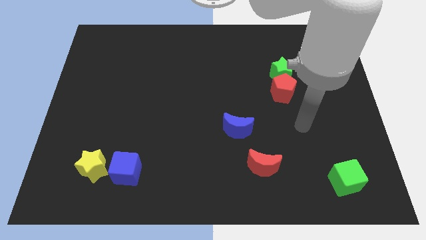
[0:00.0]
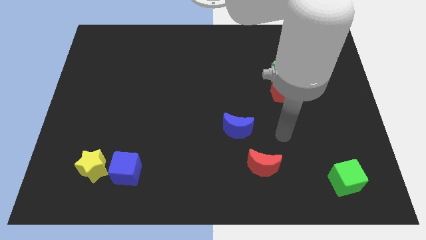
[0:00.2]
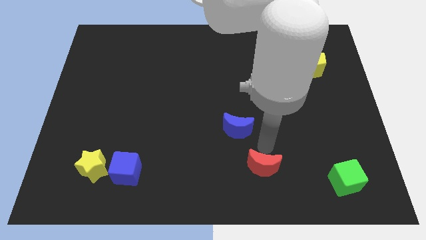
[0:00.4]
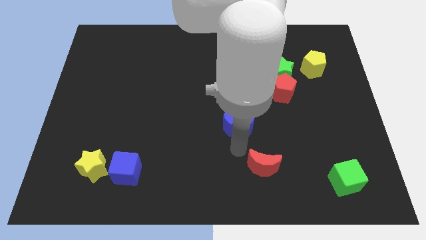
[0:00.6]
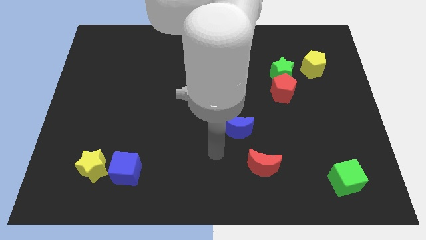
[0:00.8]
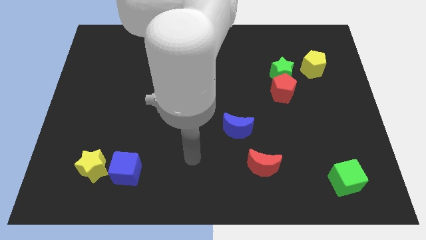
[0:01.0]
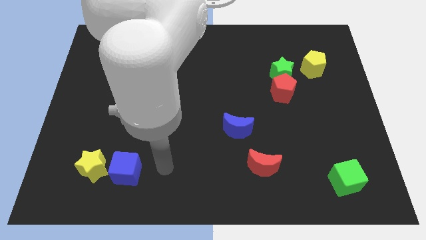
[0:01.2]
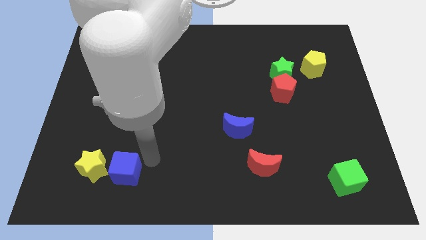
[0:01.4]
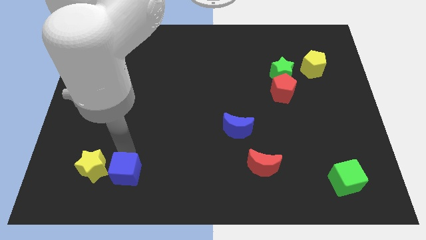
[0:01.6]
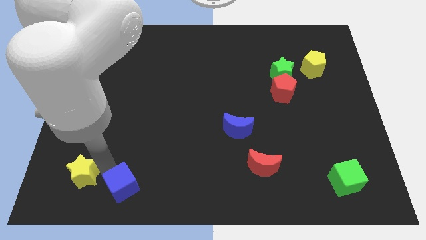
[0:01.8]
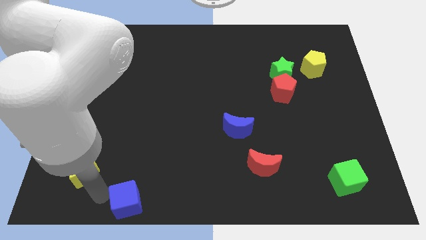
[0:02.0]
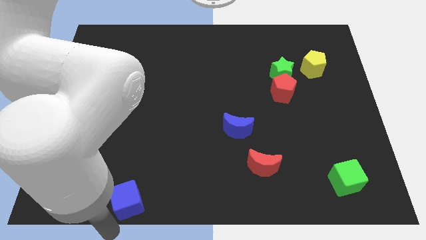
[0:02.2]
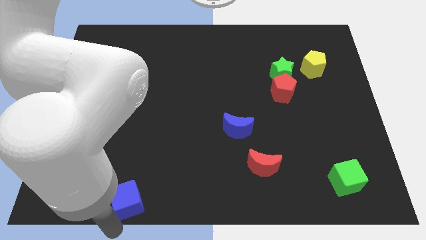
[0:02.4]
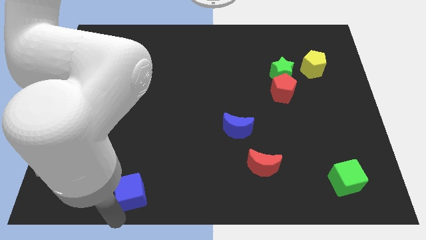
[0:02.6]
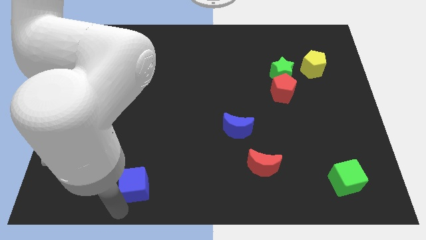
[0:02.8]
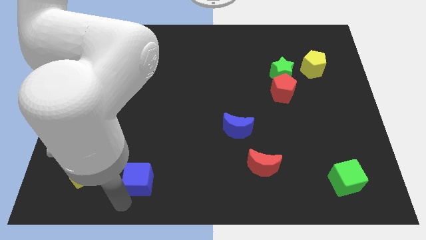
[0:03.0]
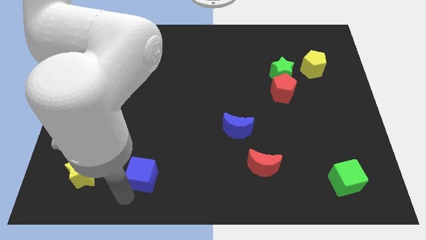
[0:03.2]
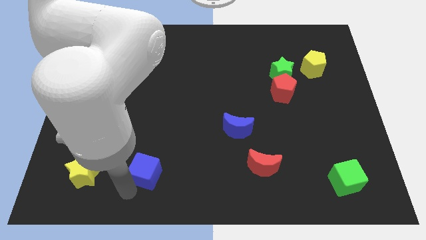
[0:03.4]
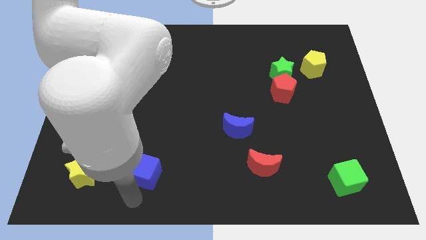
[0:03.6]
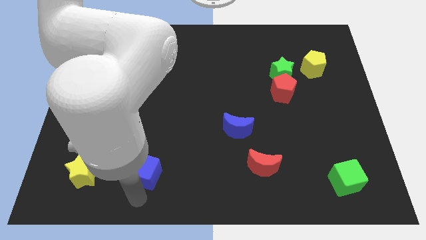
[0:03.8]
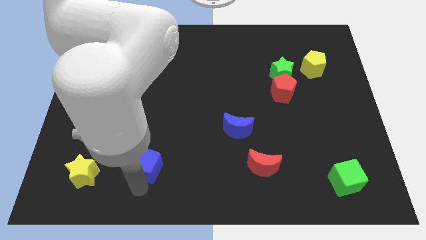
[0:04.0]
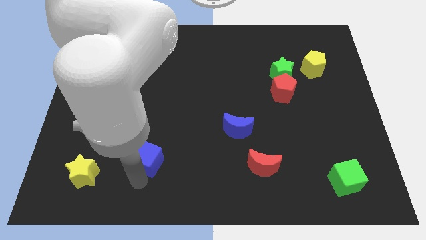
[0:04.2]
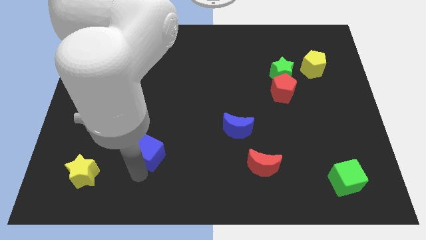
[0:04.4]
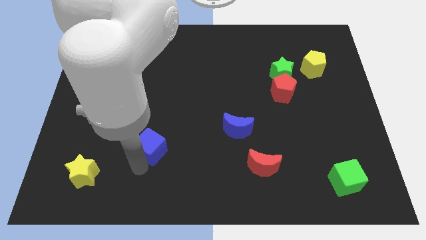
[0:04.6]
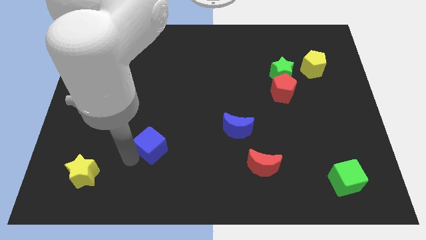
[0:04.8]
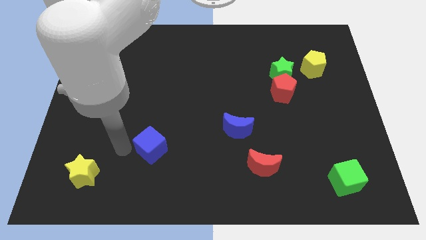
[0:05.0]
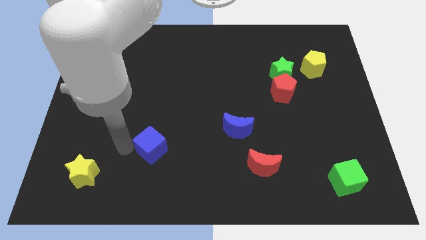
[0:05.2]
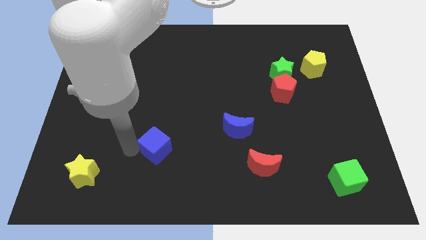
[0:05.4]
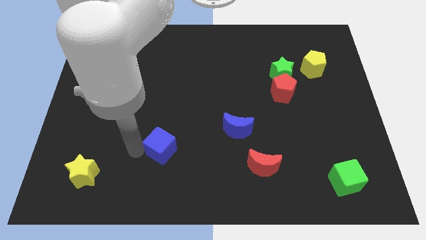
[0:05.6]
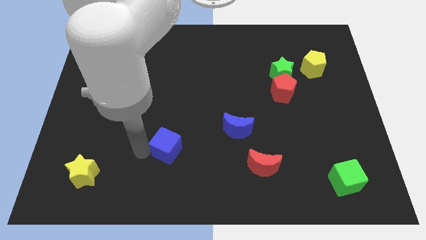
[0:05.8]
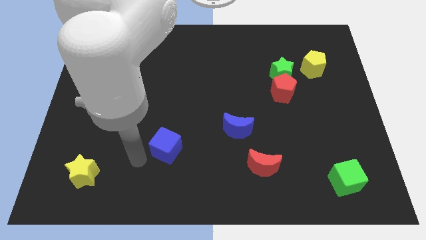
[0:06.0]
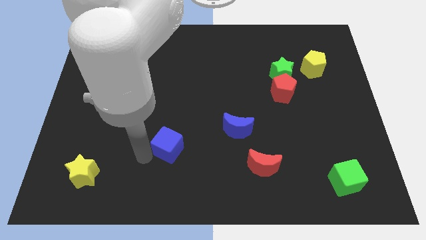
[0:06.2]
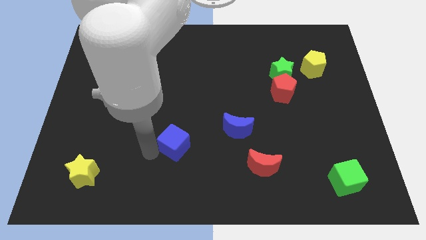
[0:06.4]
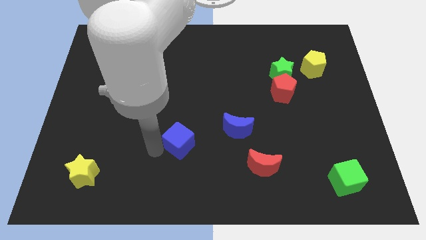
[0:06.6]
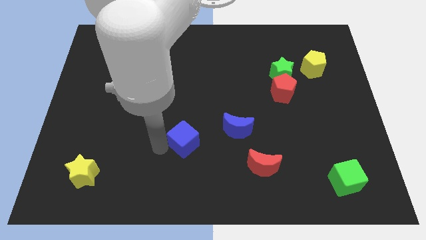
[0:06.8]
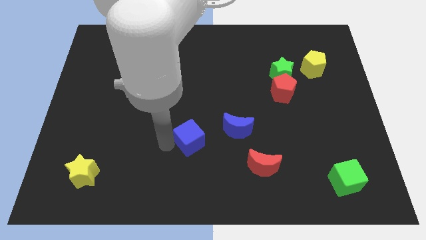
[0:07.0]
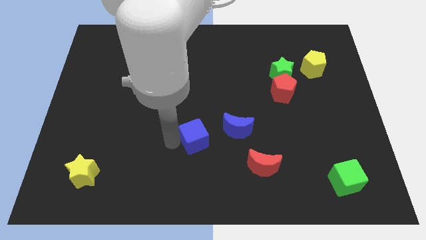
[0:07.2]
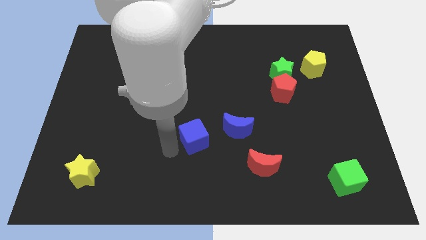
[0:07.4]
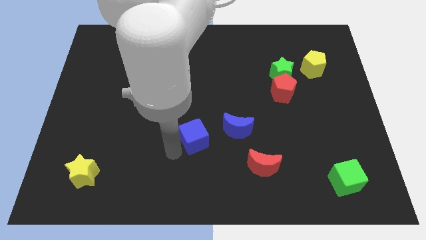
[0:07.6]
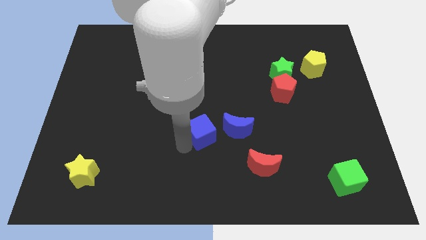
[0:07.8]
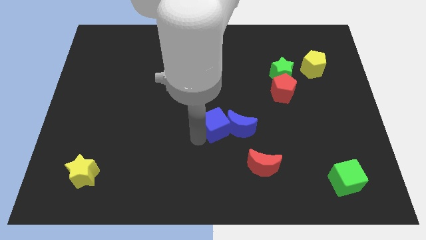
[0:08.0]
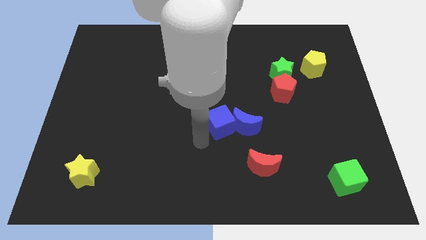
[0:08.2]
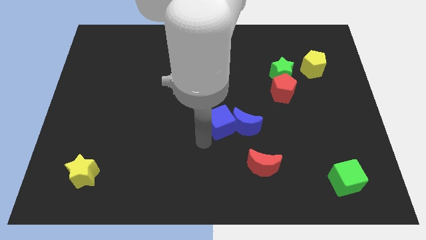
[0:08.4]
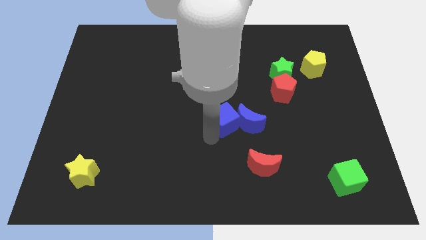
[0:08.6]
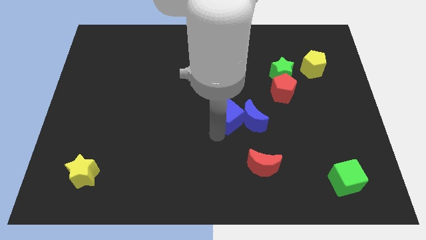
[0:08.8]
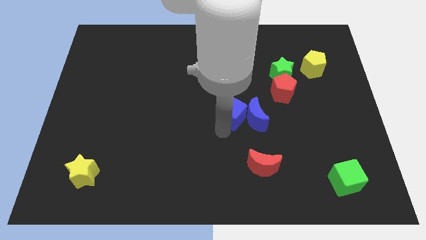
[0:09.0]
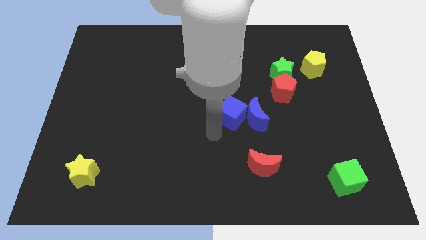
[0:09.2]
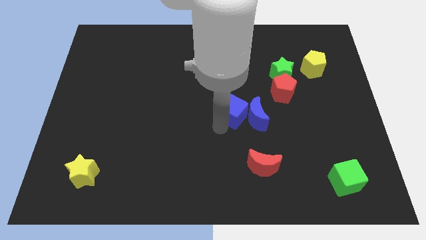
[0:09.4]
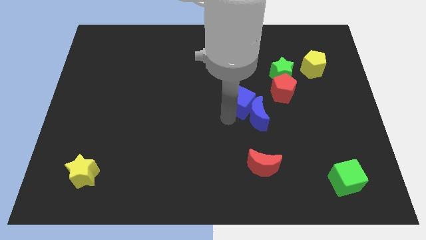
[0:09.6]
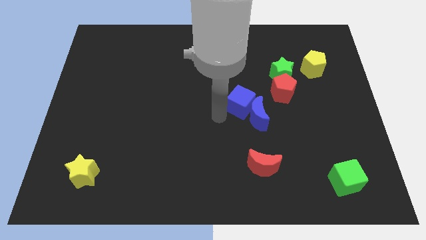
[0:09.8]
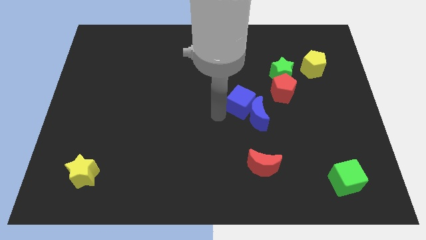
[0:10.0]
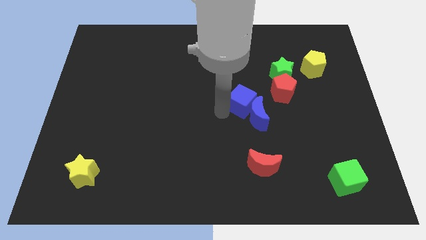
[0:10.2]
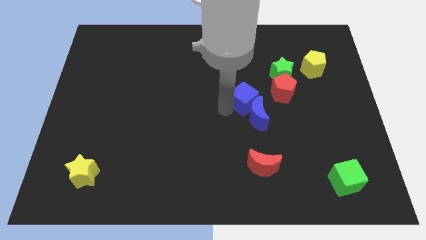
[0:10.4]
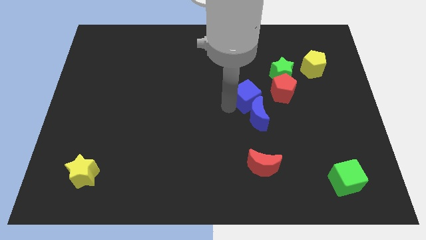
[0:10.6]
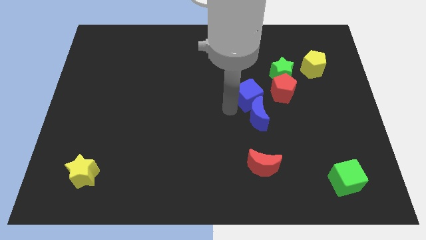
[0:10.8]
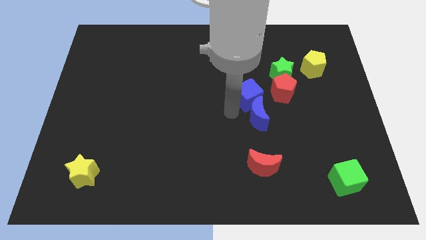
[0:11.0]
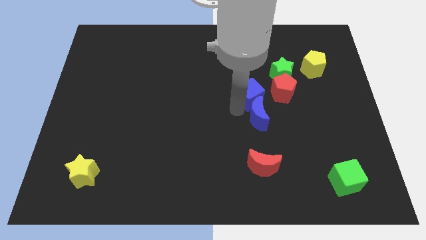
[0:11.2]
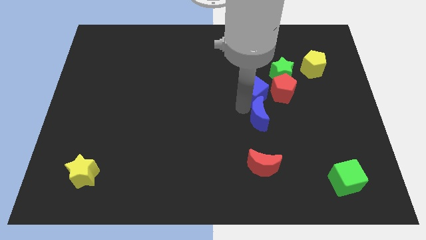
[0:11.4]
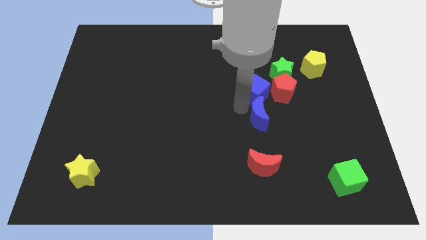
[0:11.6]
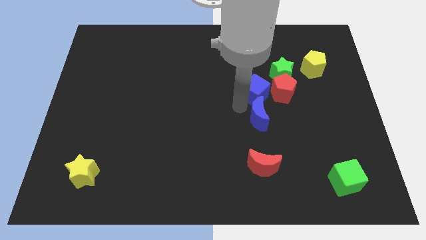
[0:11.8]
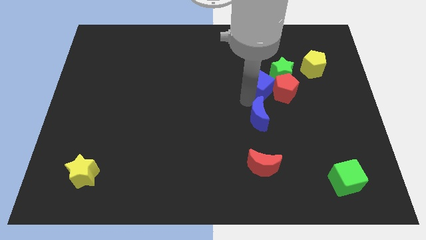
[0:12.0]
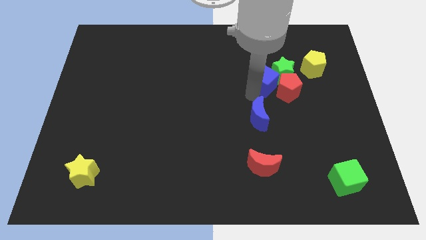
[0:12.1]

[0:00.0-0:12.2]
slide the blue cube to the green star
